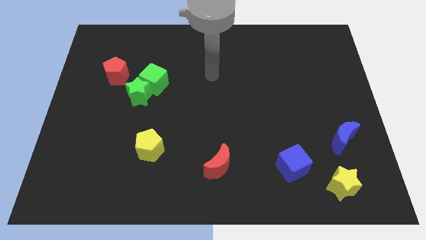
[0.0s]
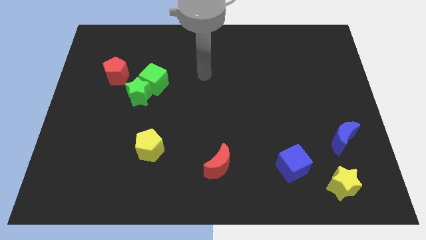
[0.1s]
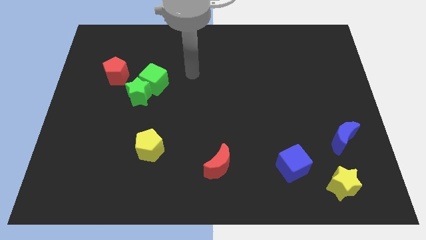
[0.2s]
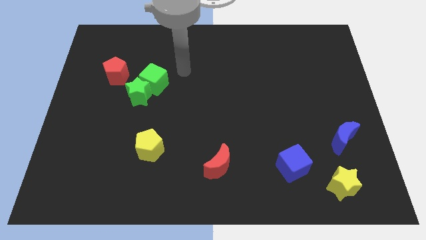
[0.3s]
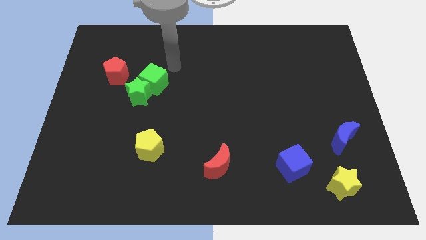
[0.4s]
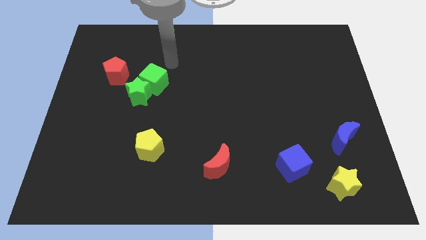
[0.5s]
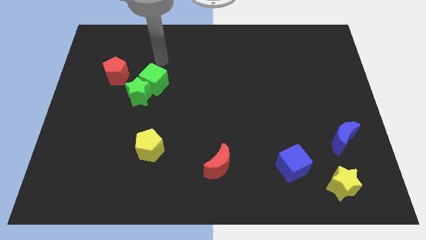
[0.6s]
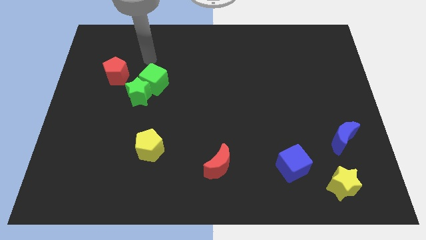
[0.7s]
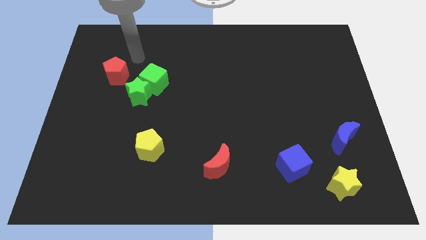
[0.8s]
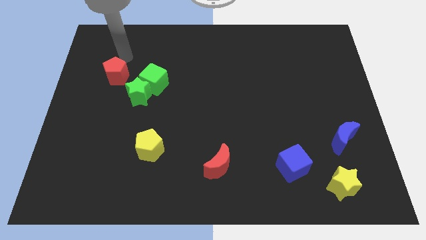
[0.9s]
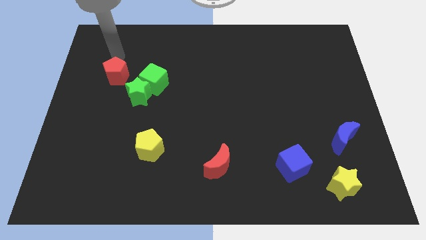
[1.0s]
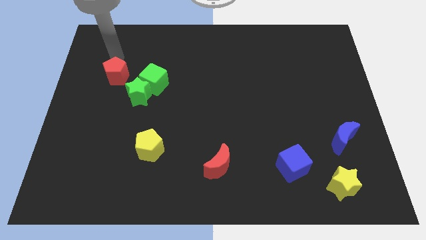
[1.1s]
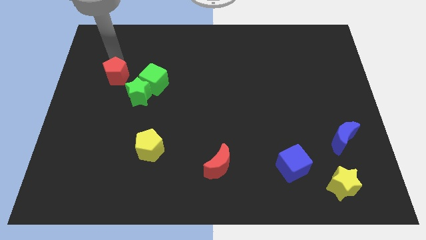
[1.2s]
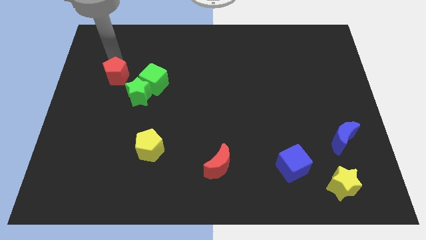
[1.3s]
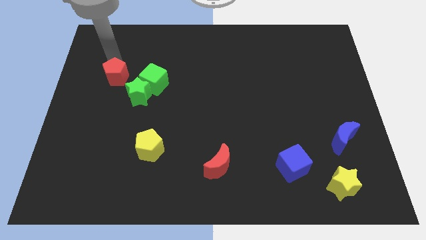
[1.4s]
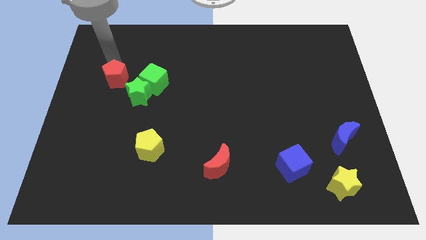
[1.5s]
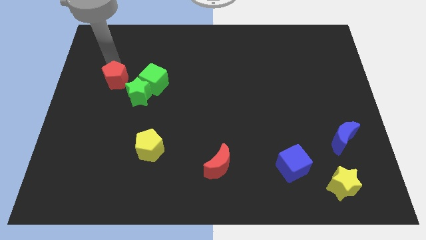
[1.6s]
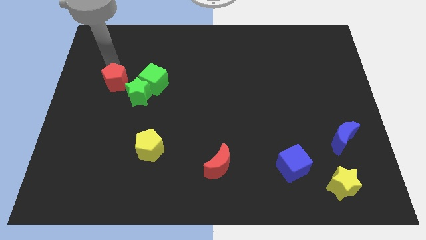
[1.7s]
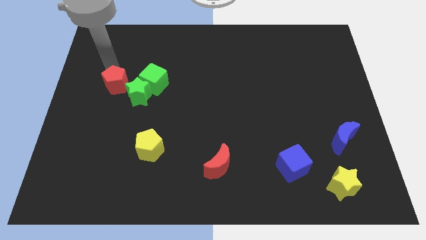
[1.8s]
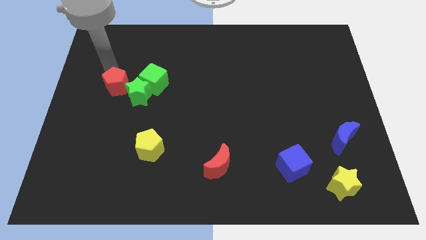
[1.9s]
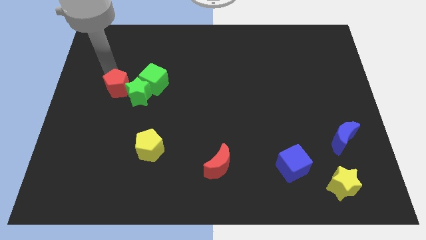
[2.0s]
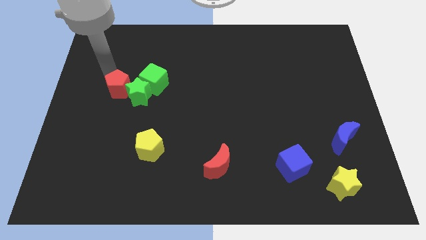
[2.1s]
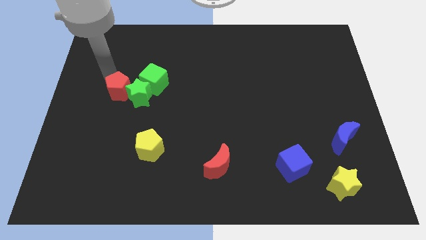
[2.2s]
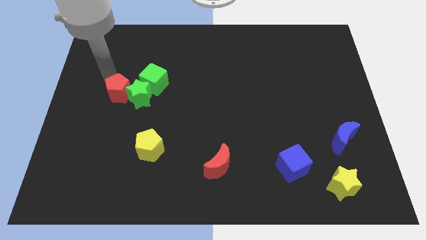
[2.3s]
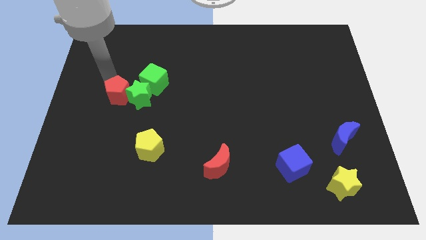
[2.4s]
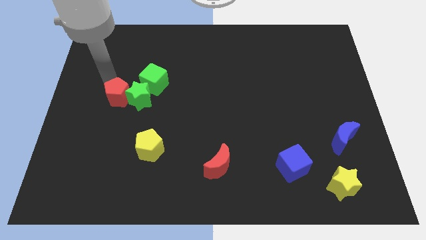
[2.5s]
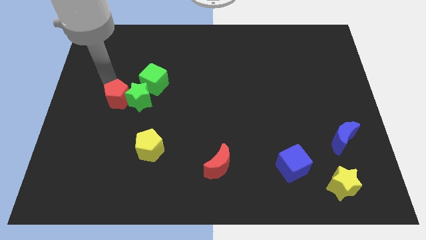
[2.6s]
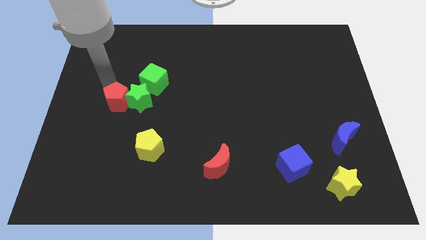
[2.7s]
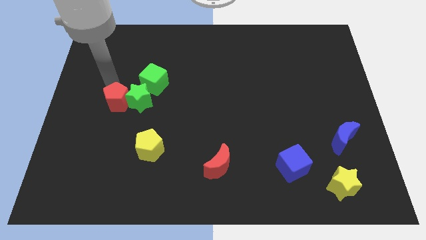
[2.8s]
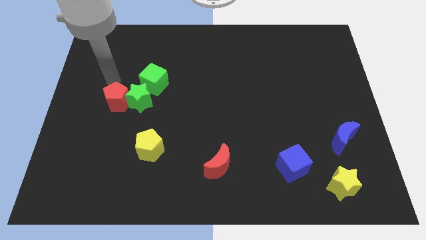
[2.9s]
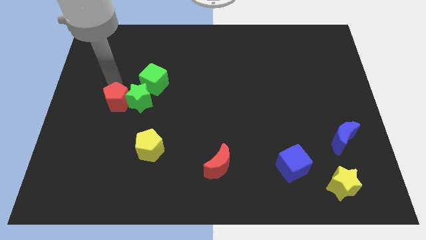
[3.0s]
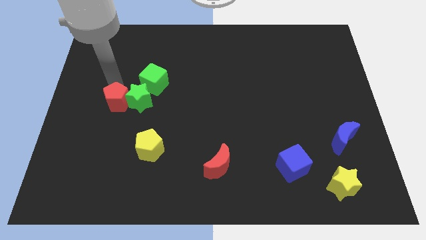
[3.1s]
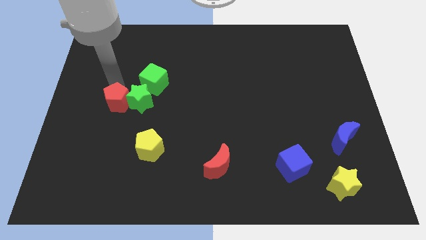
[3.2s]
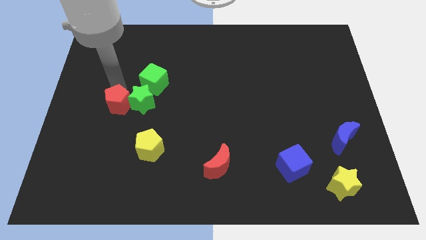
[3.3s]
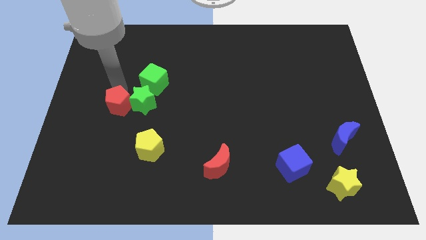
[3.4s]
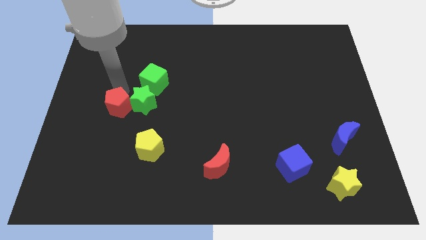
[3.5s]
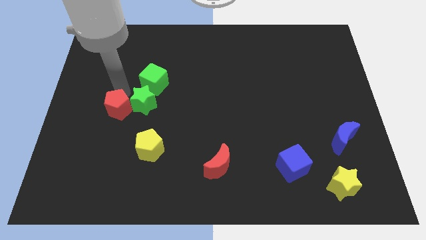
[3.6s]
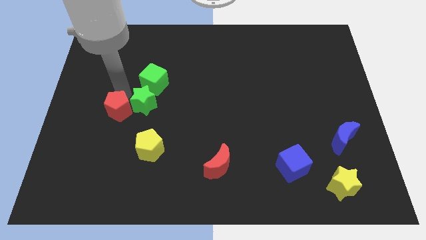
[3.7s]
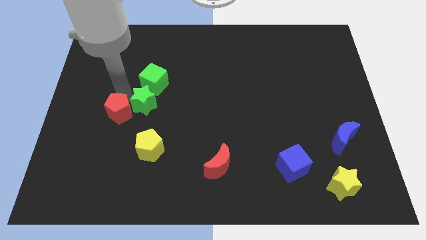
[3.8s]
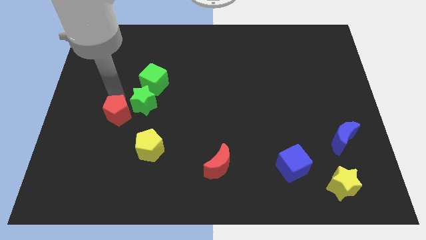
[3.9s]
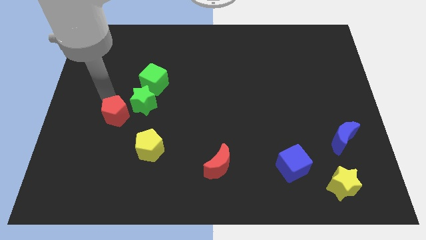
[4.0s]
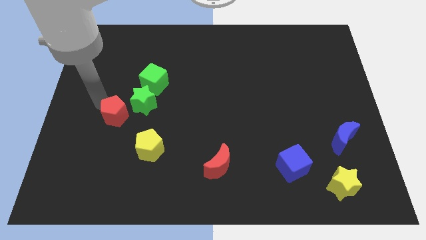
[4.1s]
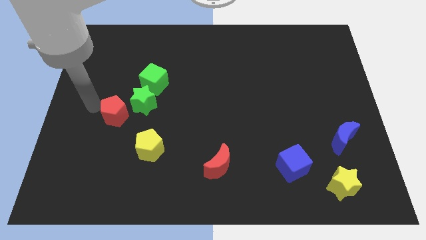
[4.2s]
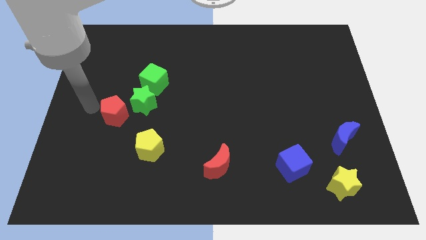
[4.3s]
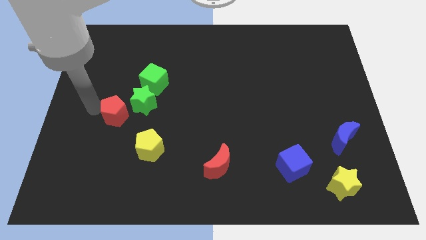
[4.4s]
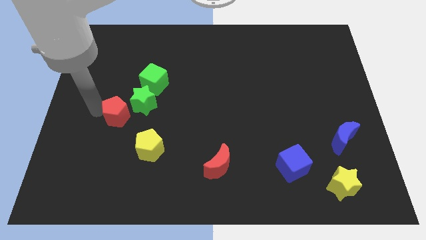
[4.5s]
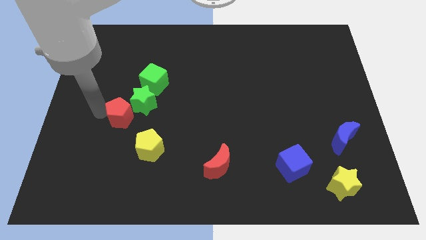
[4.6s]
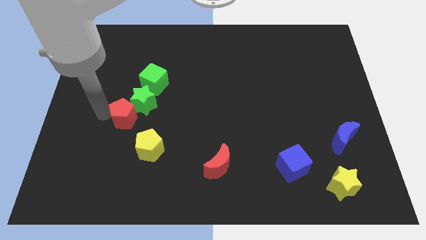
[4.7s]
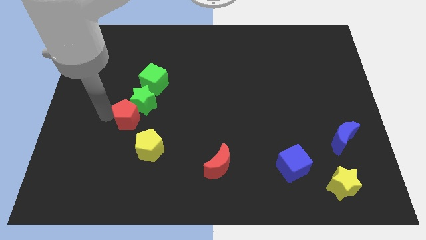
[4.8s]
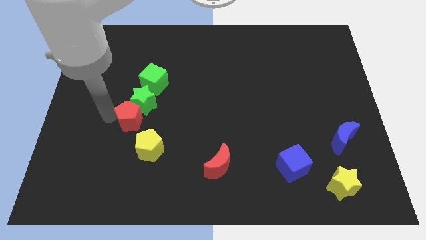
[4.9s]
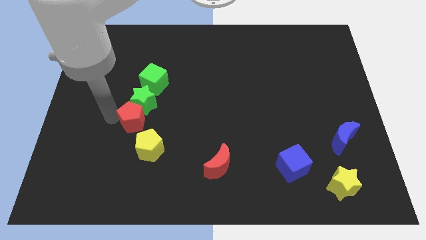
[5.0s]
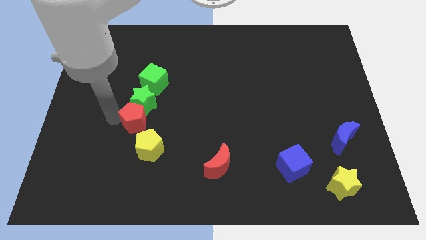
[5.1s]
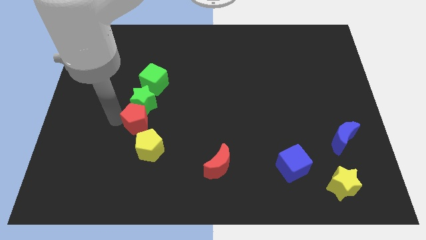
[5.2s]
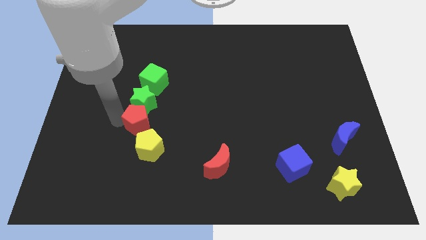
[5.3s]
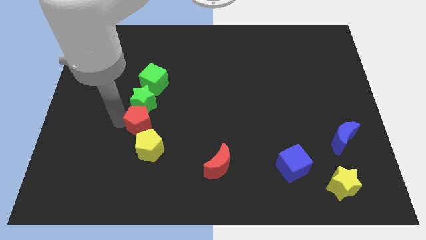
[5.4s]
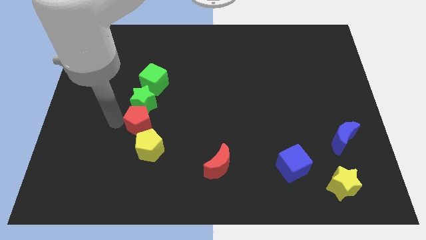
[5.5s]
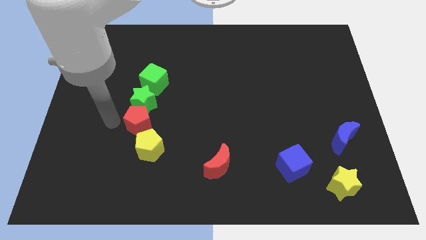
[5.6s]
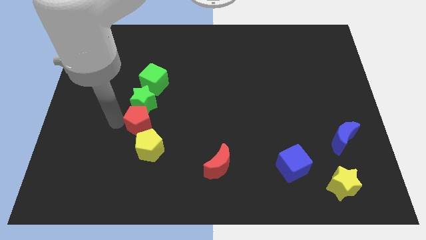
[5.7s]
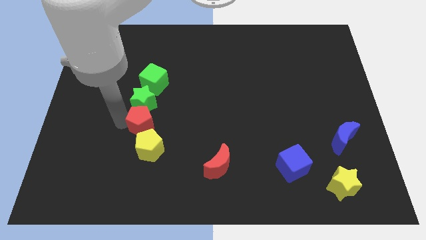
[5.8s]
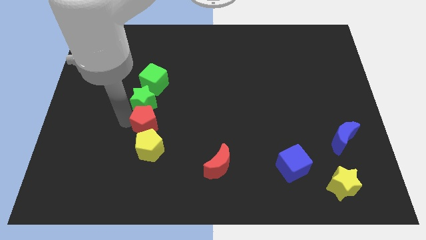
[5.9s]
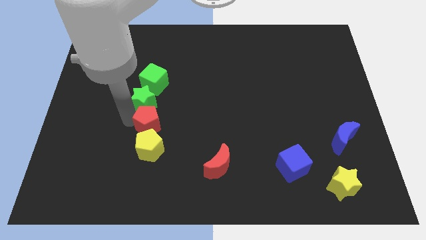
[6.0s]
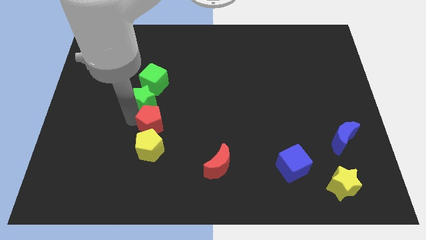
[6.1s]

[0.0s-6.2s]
move the red pentagon diagonally up and to the right of the yellow pentagon
